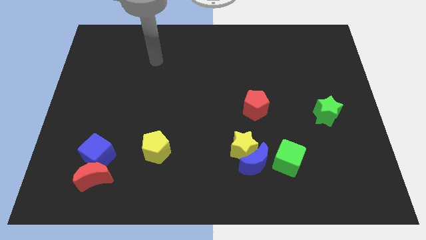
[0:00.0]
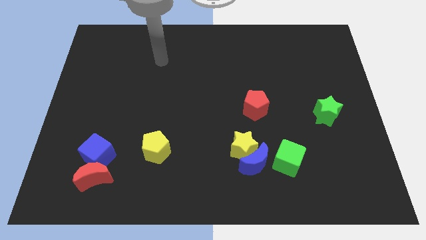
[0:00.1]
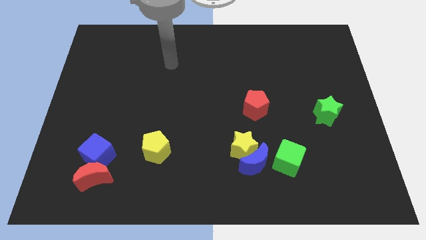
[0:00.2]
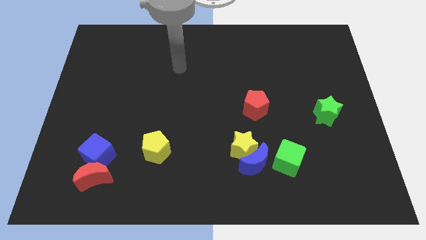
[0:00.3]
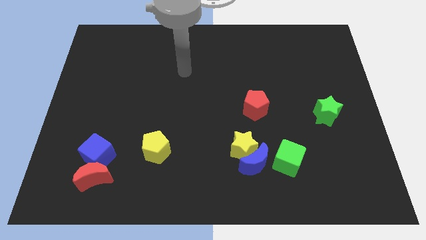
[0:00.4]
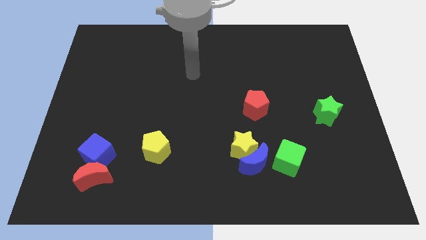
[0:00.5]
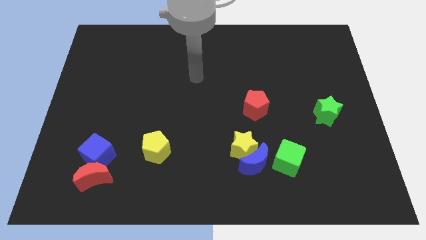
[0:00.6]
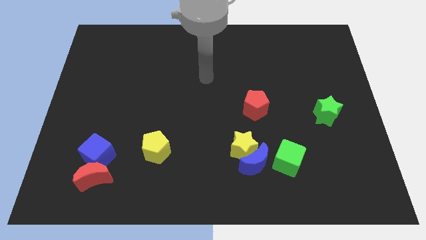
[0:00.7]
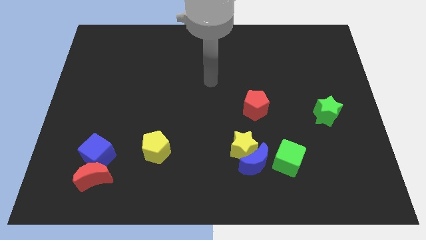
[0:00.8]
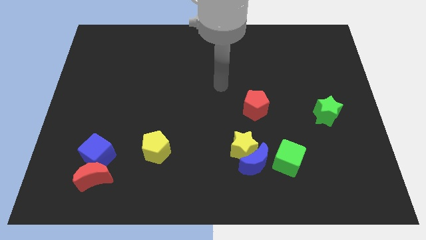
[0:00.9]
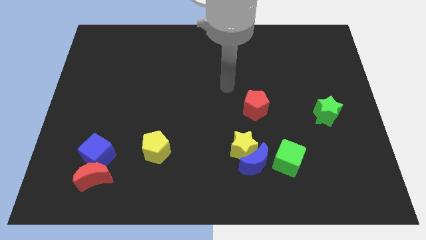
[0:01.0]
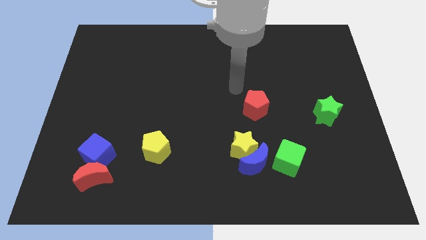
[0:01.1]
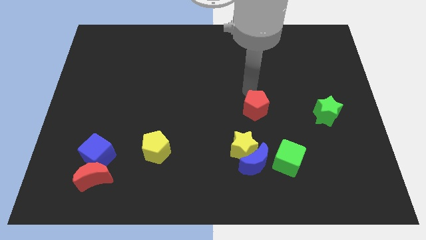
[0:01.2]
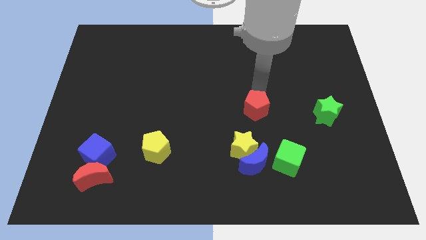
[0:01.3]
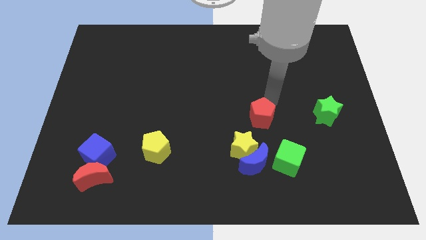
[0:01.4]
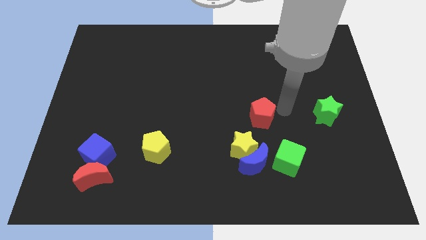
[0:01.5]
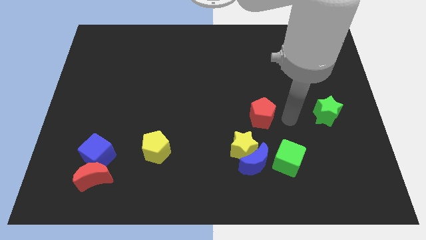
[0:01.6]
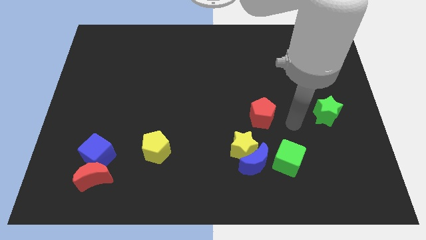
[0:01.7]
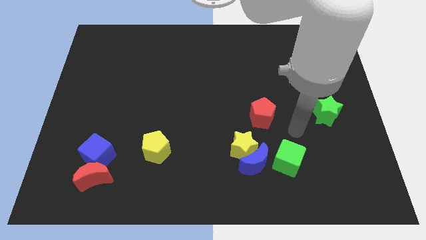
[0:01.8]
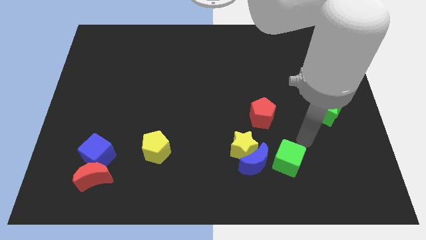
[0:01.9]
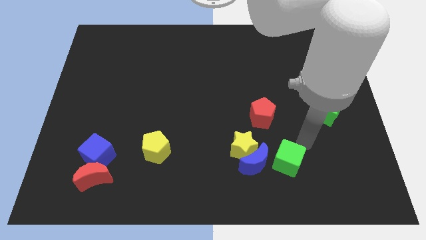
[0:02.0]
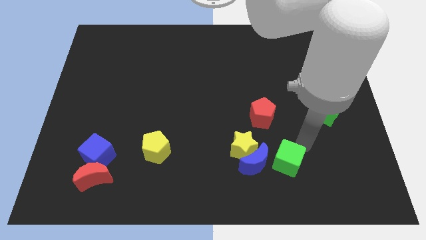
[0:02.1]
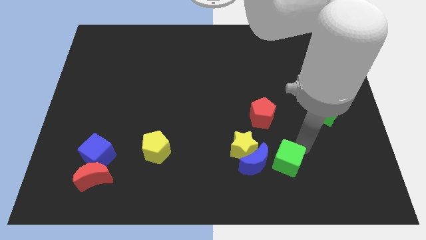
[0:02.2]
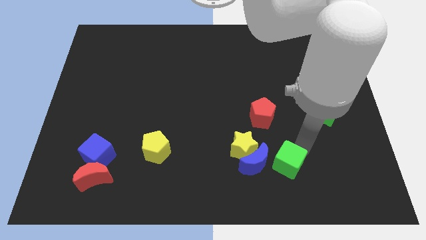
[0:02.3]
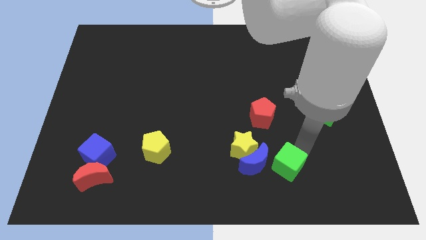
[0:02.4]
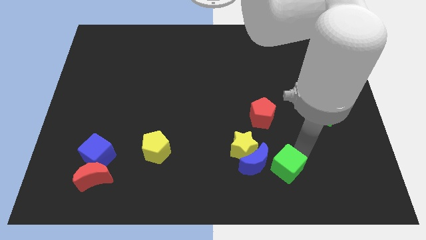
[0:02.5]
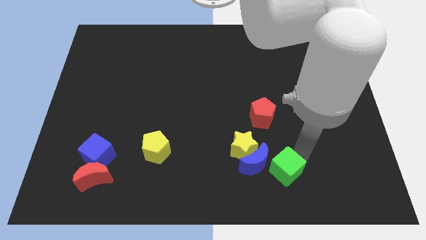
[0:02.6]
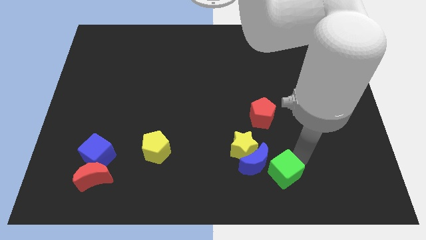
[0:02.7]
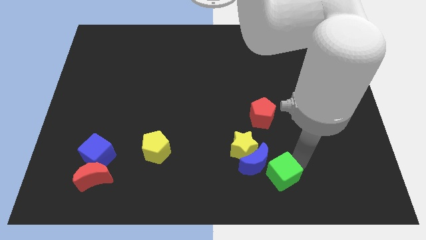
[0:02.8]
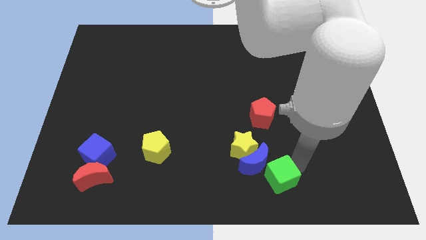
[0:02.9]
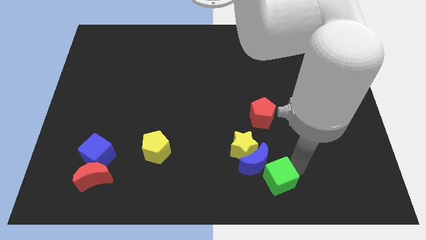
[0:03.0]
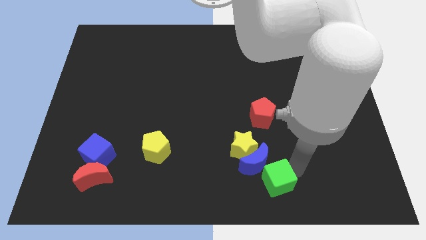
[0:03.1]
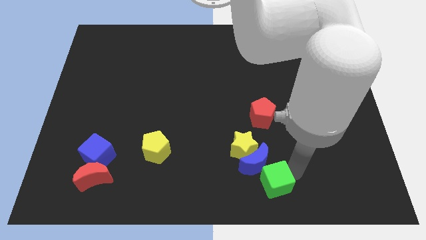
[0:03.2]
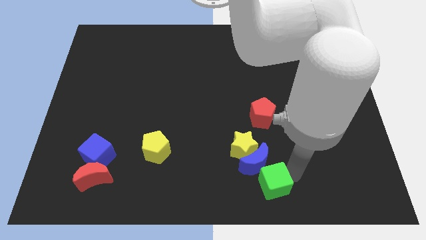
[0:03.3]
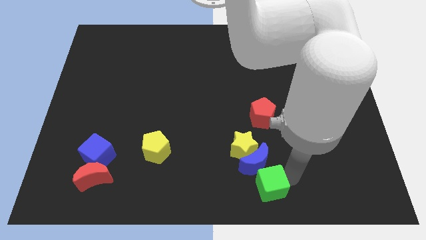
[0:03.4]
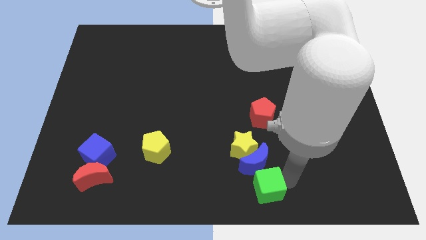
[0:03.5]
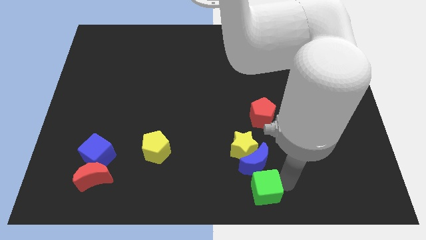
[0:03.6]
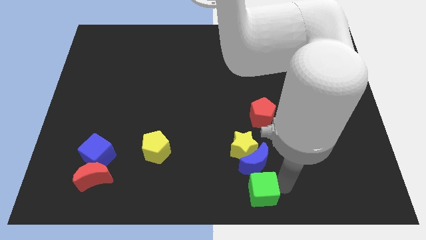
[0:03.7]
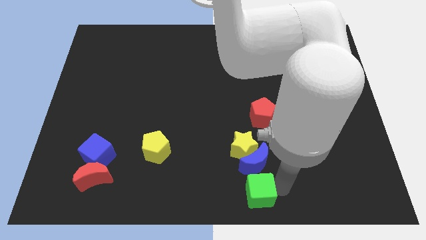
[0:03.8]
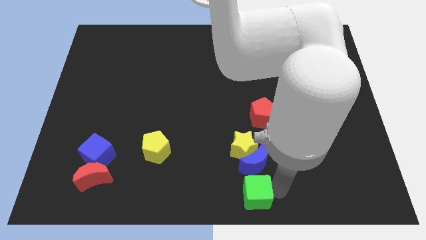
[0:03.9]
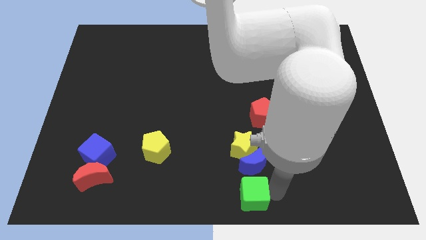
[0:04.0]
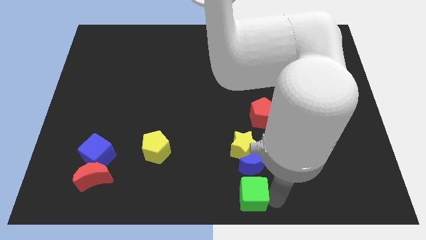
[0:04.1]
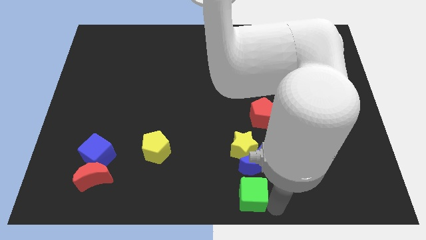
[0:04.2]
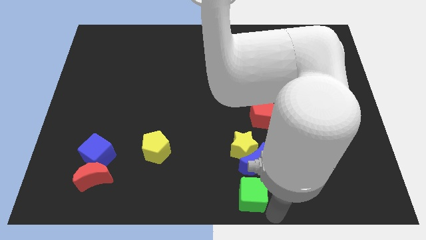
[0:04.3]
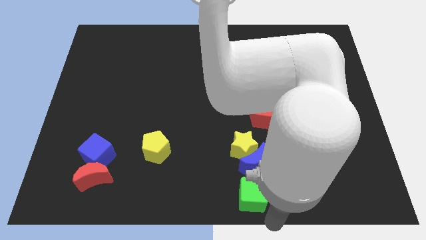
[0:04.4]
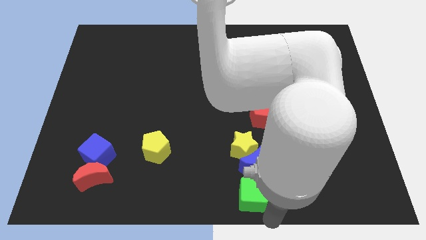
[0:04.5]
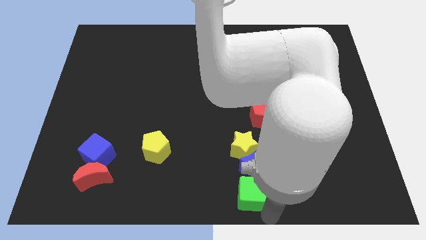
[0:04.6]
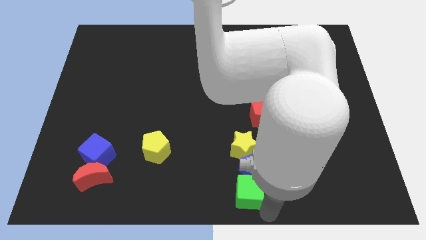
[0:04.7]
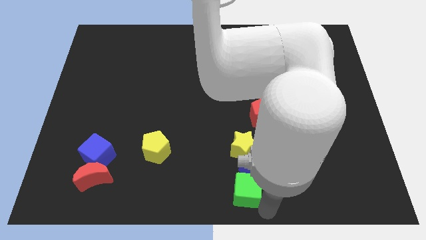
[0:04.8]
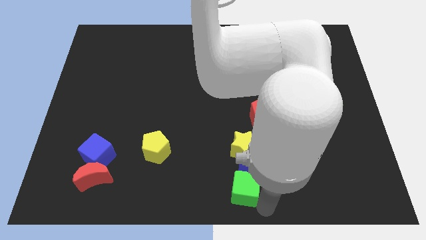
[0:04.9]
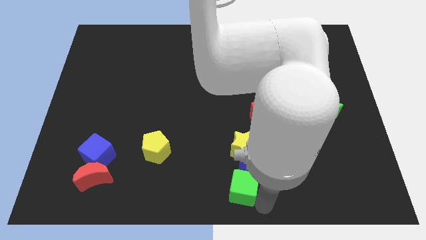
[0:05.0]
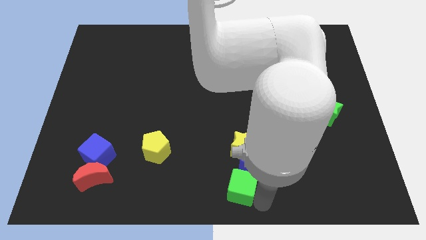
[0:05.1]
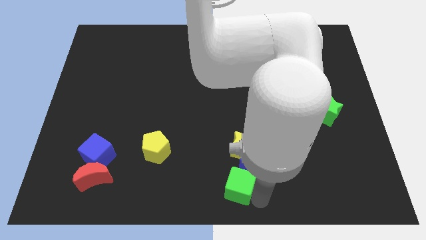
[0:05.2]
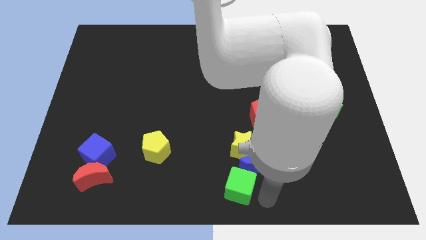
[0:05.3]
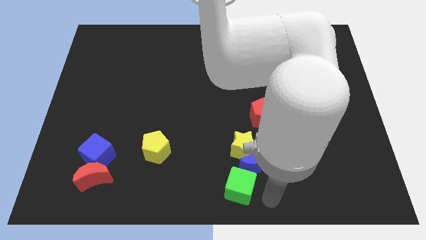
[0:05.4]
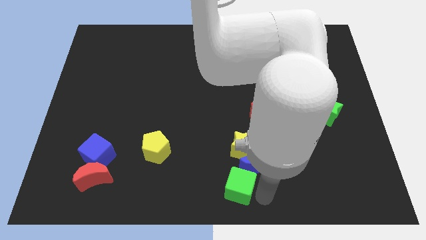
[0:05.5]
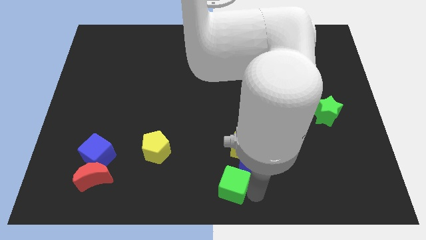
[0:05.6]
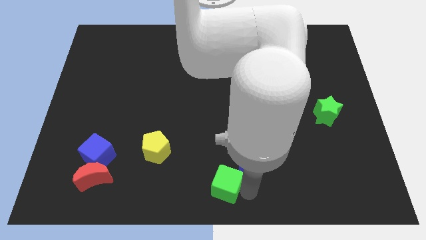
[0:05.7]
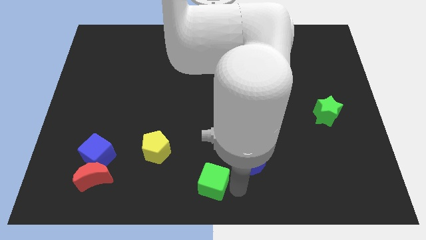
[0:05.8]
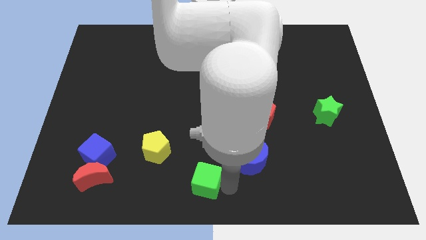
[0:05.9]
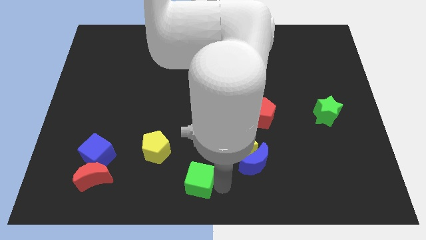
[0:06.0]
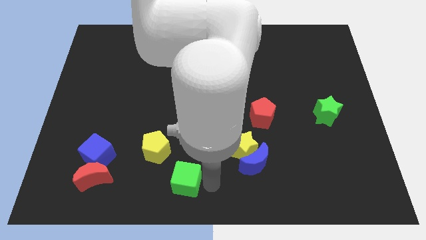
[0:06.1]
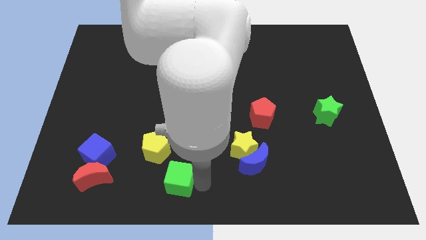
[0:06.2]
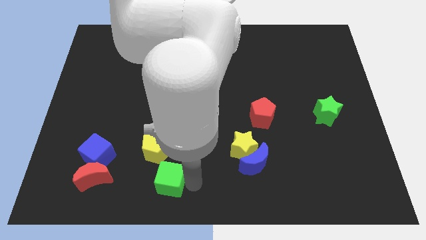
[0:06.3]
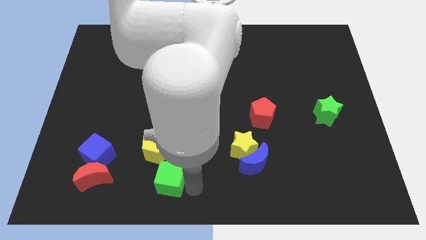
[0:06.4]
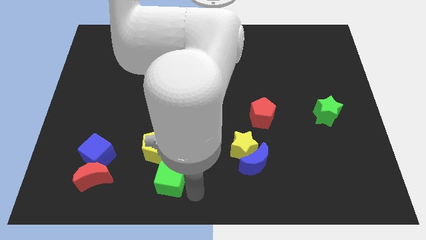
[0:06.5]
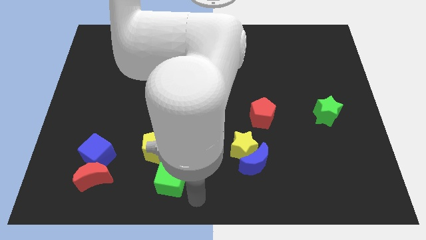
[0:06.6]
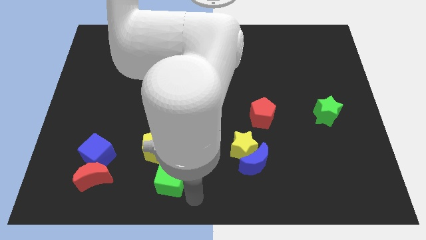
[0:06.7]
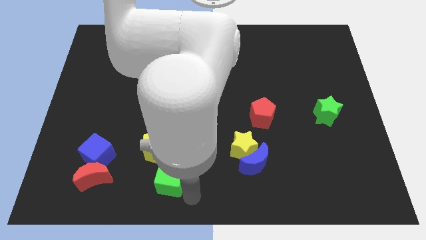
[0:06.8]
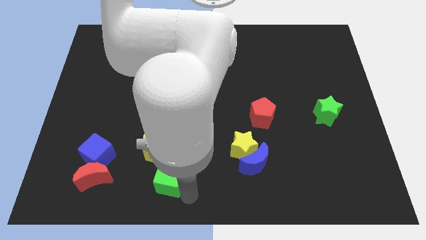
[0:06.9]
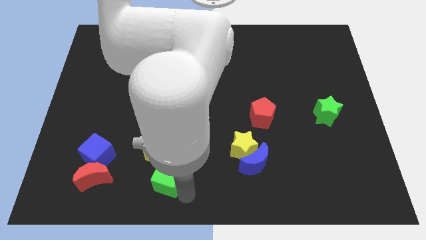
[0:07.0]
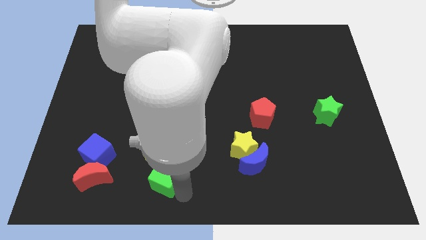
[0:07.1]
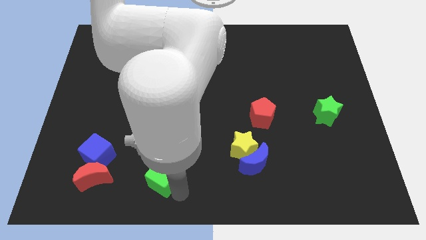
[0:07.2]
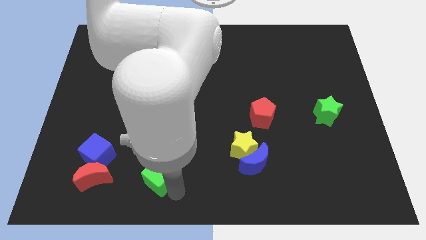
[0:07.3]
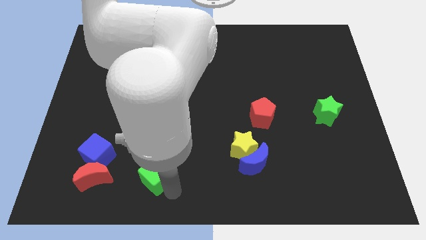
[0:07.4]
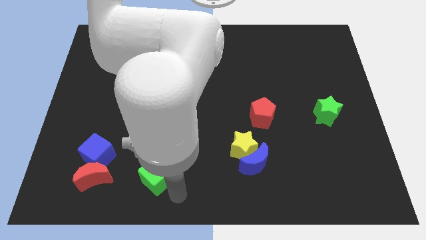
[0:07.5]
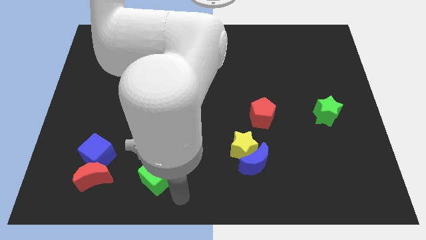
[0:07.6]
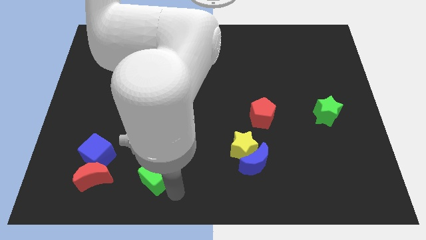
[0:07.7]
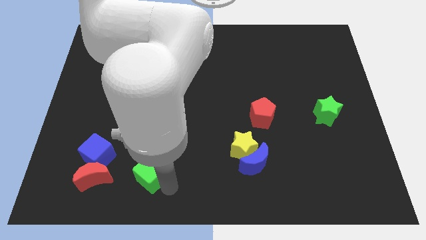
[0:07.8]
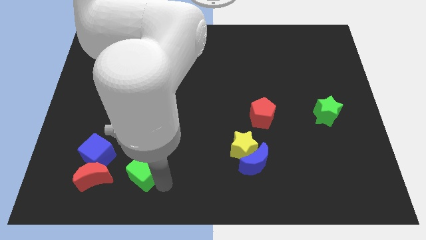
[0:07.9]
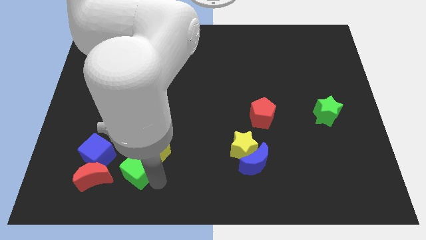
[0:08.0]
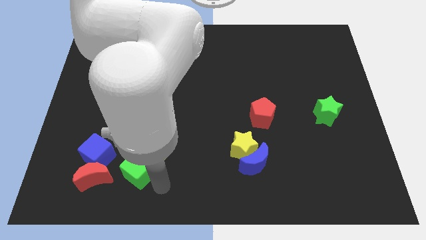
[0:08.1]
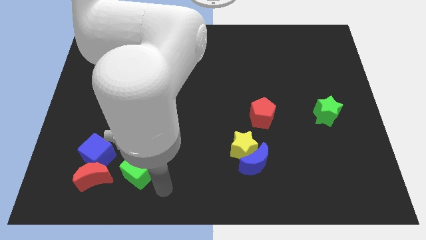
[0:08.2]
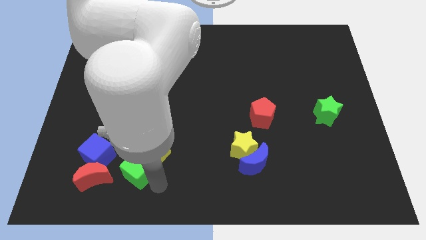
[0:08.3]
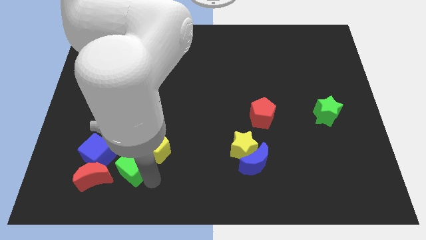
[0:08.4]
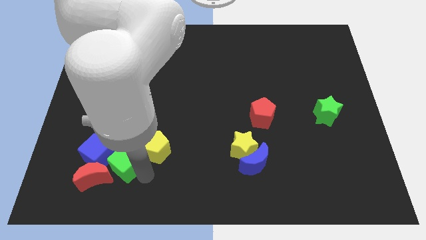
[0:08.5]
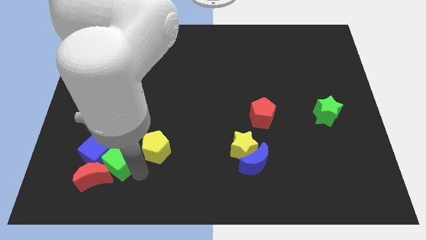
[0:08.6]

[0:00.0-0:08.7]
move the green cube to the blue cube
